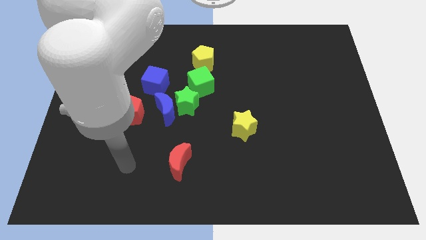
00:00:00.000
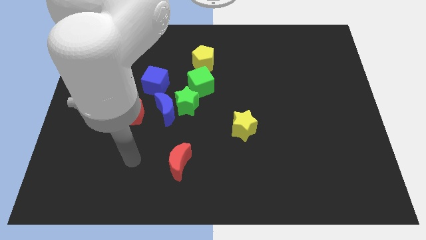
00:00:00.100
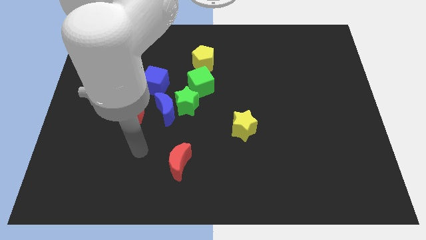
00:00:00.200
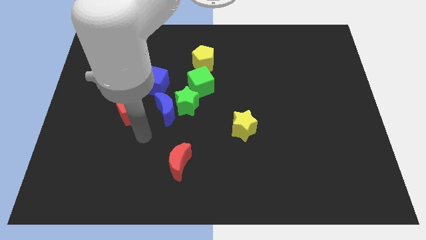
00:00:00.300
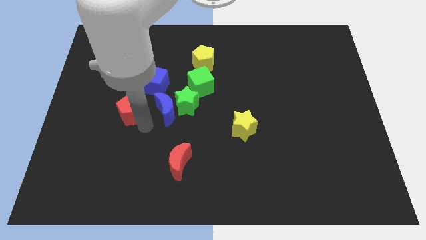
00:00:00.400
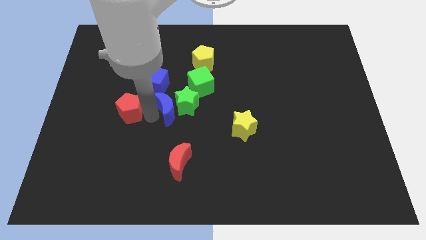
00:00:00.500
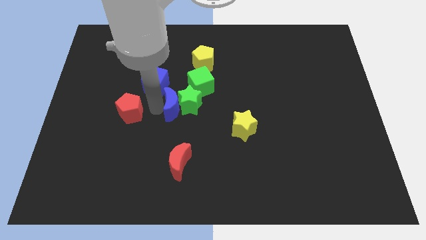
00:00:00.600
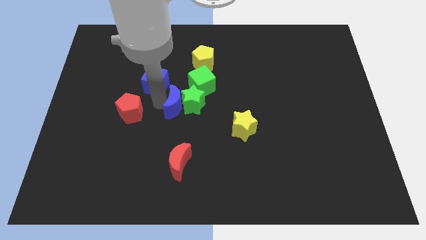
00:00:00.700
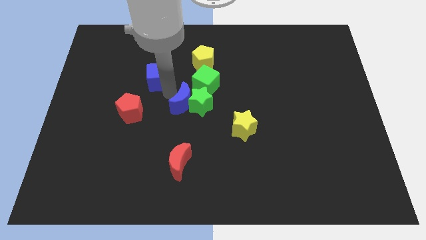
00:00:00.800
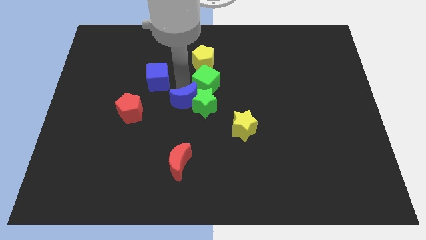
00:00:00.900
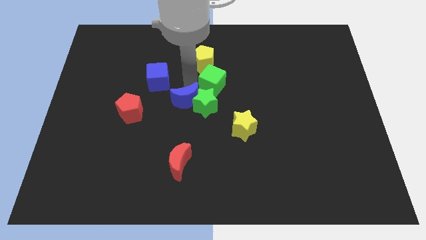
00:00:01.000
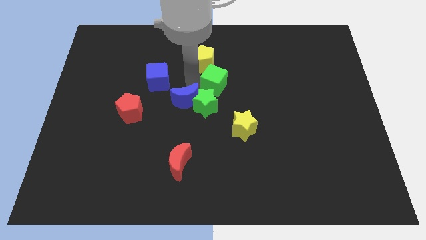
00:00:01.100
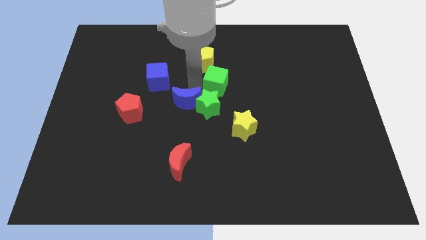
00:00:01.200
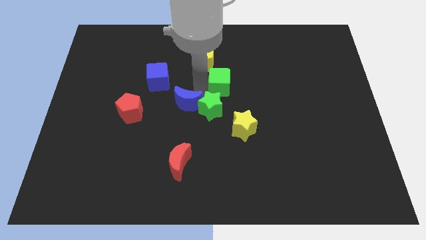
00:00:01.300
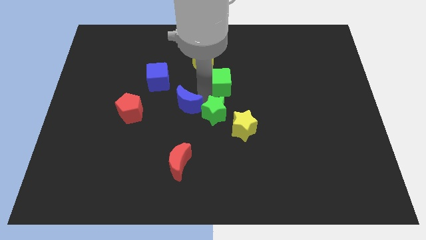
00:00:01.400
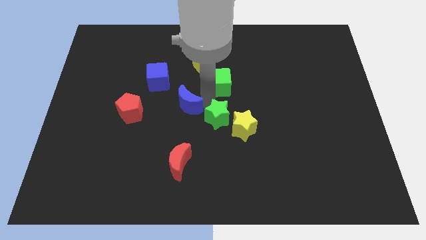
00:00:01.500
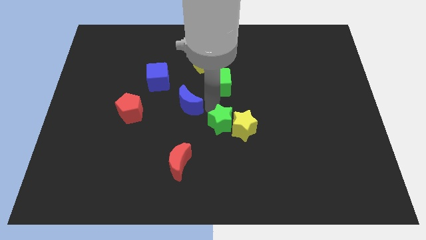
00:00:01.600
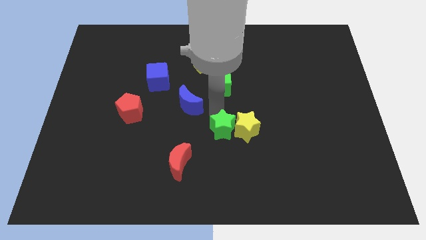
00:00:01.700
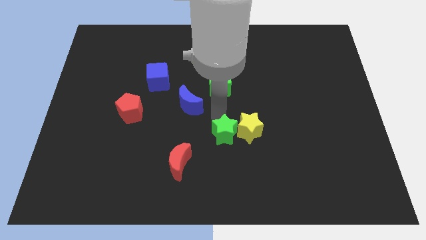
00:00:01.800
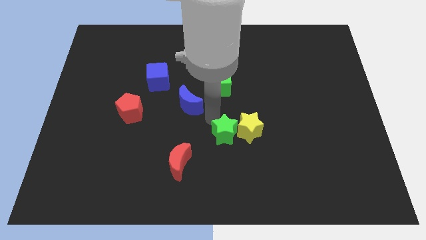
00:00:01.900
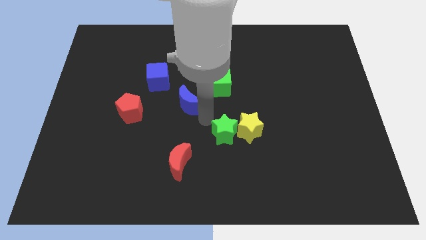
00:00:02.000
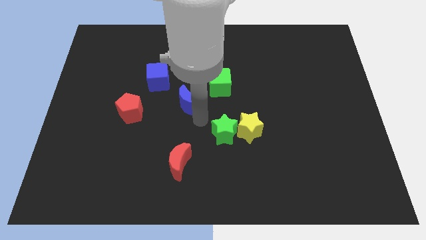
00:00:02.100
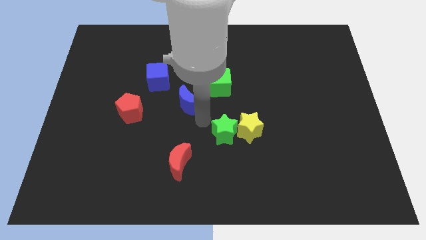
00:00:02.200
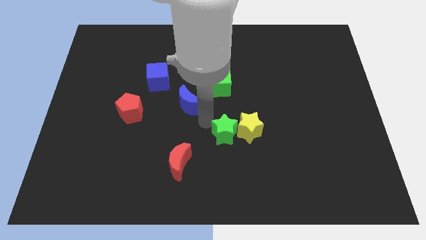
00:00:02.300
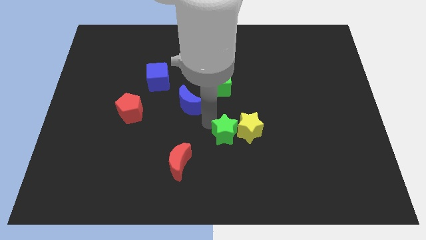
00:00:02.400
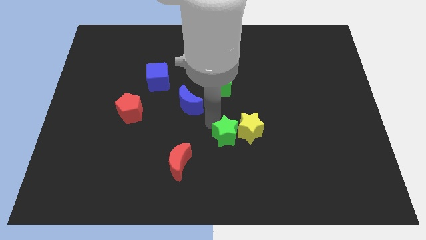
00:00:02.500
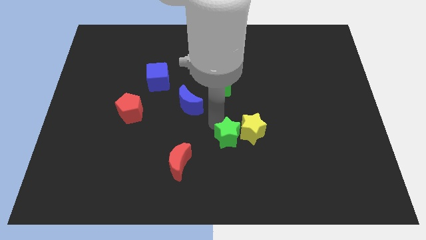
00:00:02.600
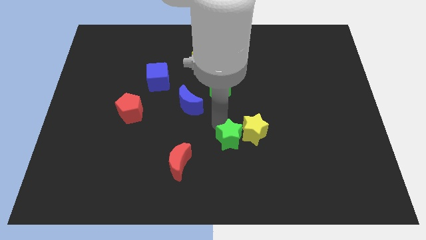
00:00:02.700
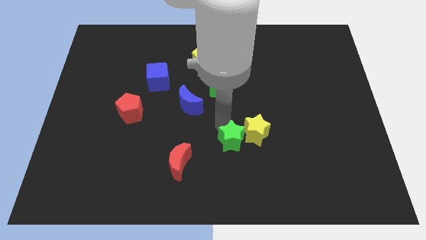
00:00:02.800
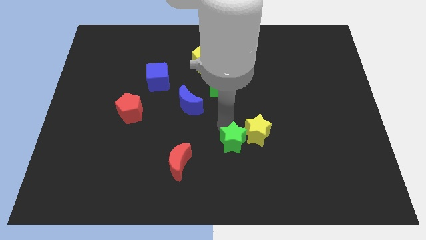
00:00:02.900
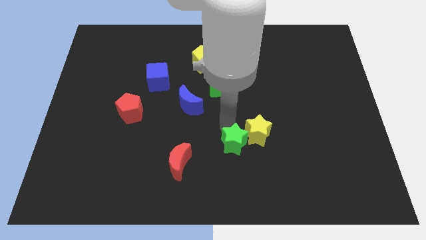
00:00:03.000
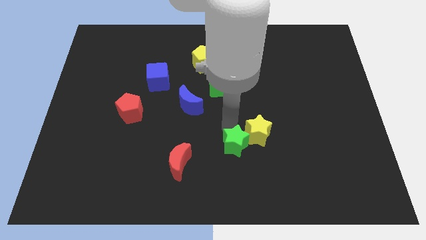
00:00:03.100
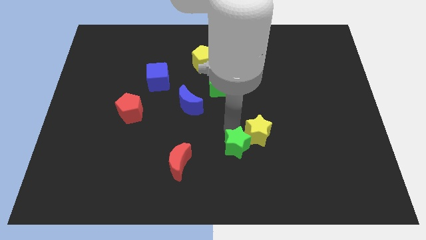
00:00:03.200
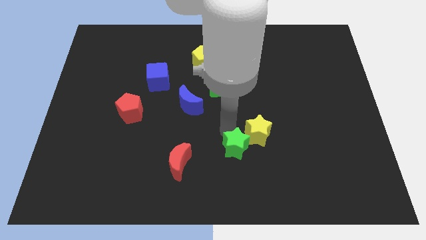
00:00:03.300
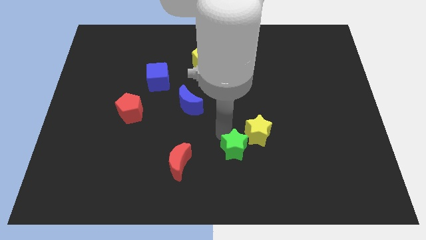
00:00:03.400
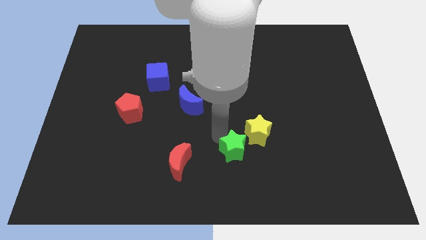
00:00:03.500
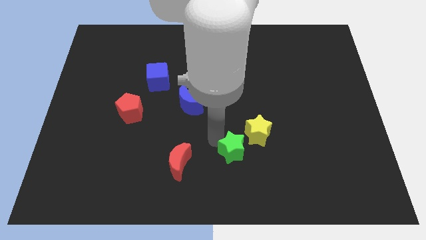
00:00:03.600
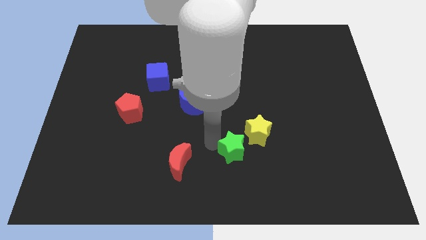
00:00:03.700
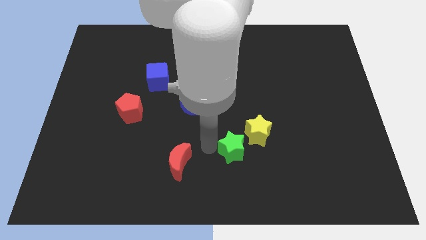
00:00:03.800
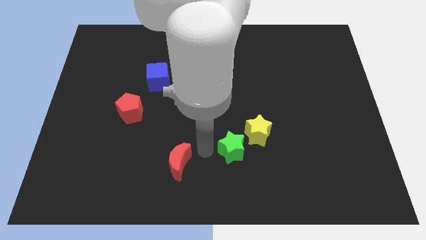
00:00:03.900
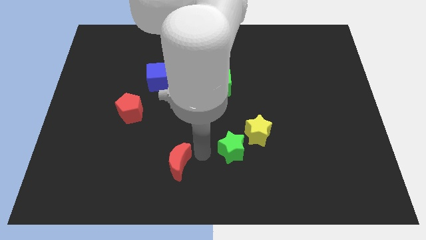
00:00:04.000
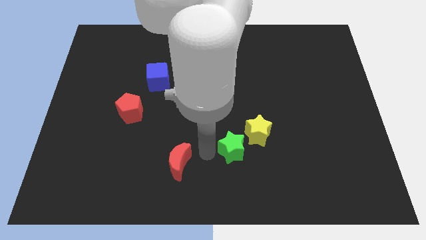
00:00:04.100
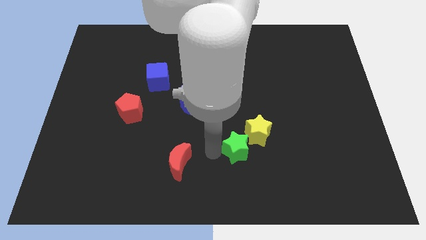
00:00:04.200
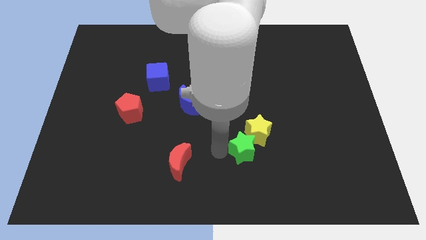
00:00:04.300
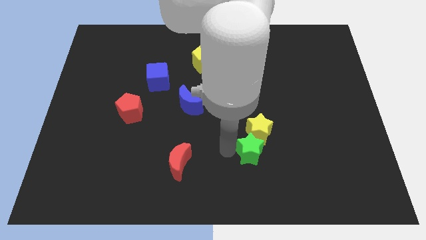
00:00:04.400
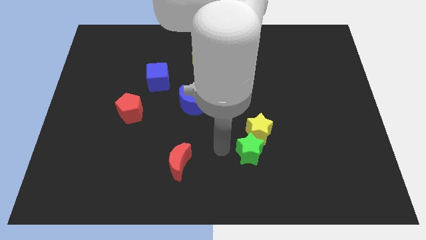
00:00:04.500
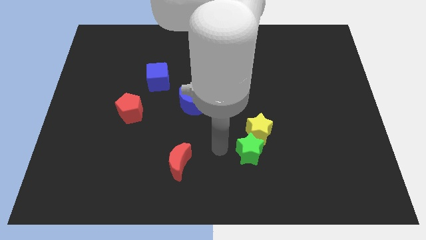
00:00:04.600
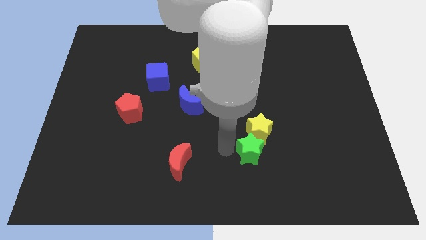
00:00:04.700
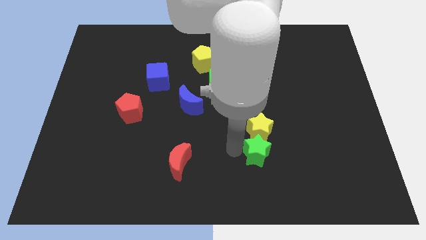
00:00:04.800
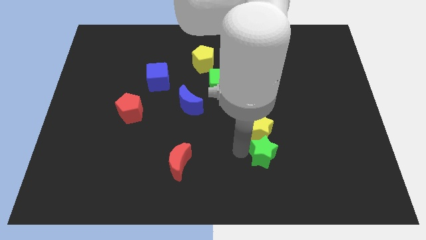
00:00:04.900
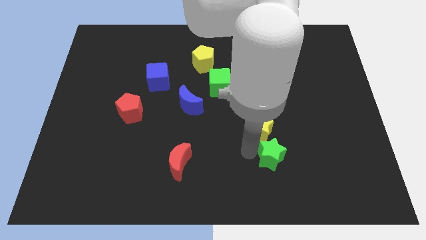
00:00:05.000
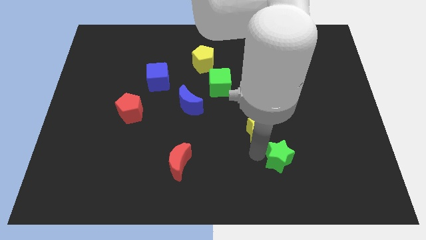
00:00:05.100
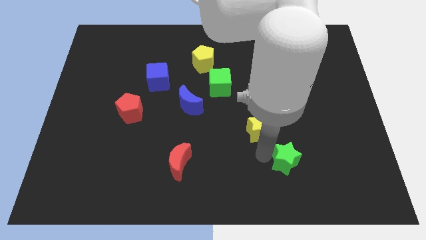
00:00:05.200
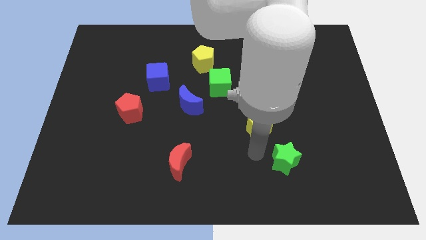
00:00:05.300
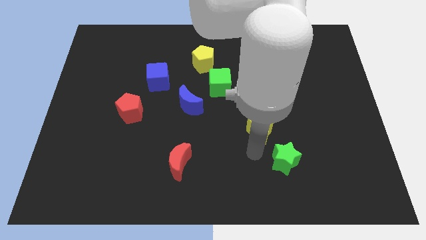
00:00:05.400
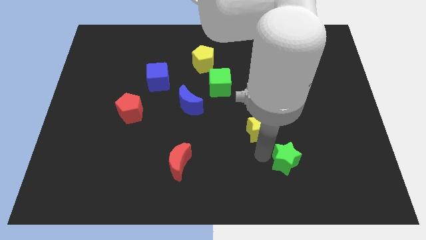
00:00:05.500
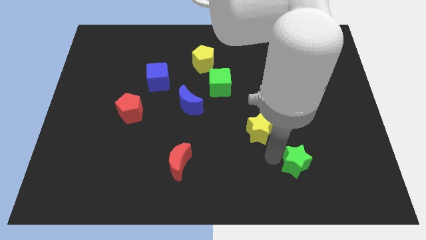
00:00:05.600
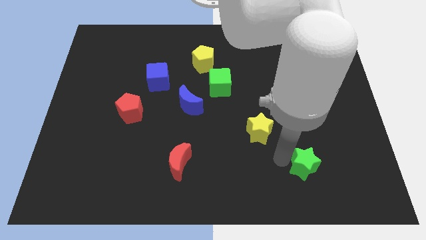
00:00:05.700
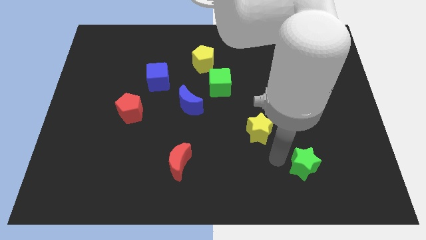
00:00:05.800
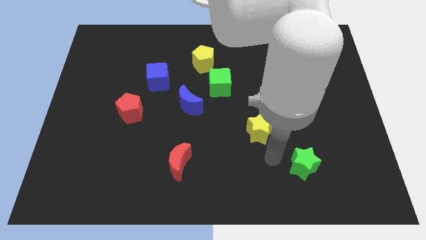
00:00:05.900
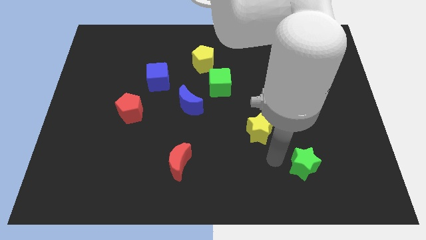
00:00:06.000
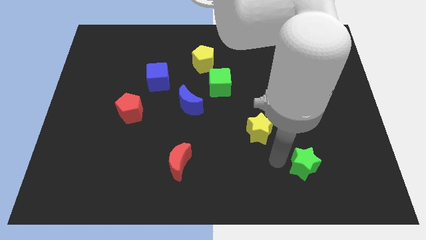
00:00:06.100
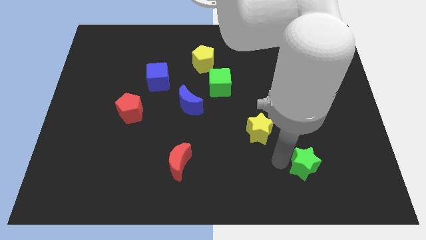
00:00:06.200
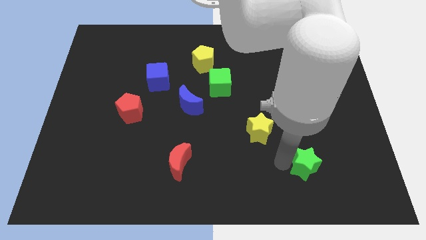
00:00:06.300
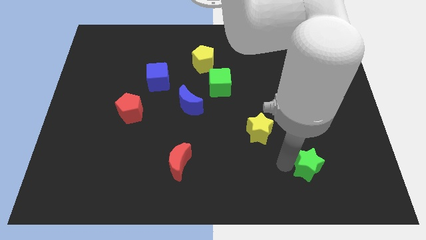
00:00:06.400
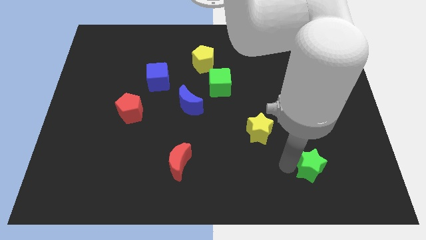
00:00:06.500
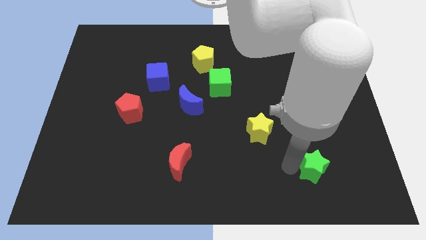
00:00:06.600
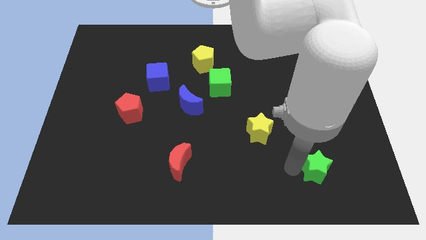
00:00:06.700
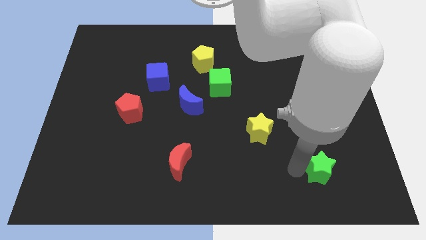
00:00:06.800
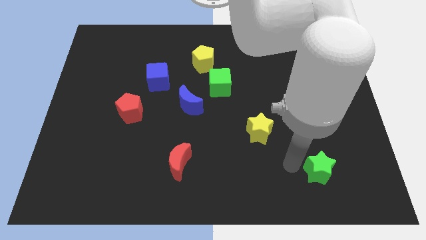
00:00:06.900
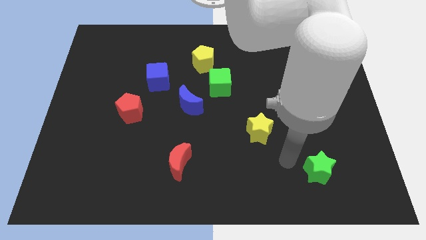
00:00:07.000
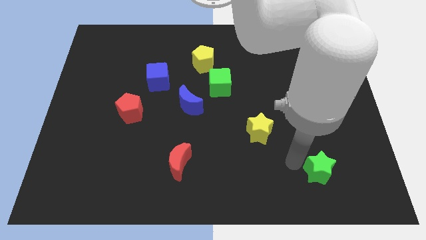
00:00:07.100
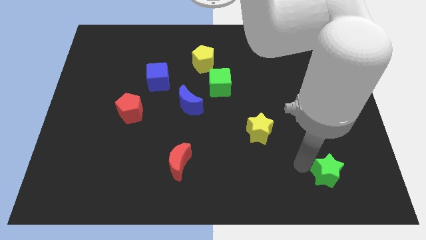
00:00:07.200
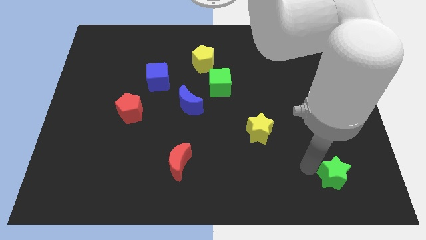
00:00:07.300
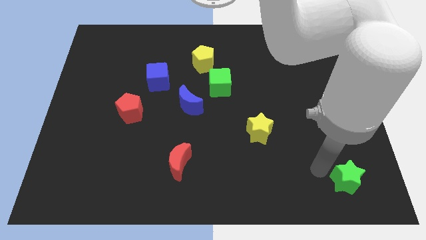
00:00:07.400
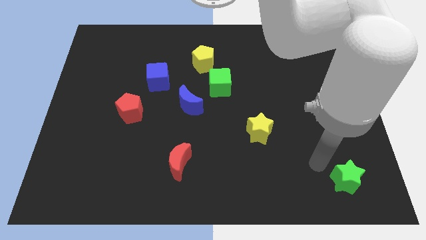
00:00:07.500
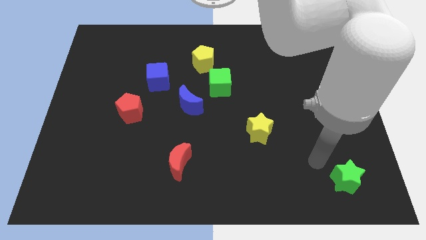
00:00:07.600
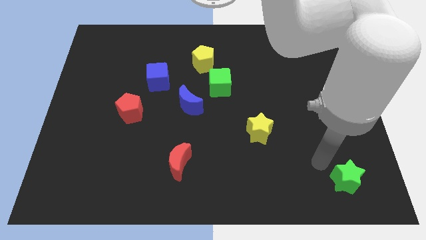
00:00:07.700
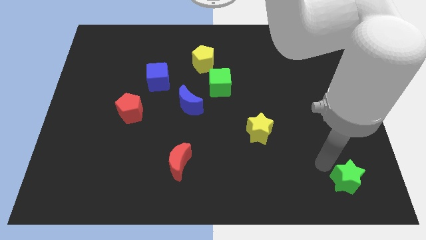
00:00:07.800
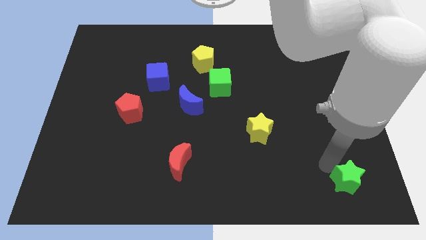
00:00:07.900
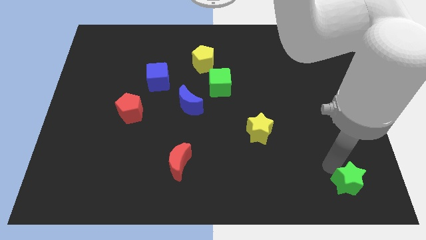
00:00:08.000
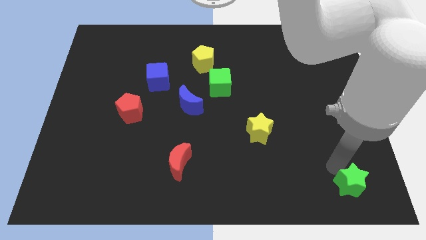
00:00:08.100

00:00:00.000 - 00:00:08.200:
slide the green star to the bottom right corner
